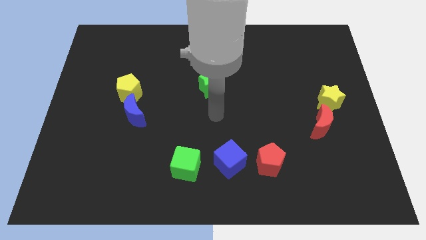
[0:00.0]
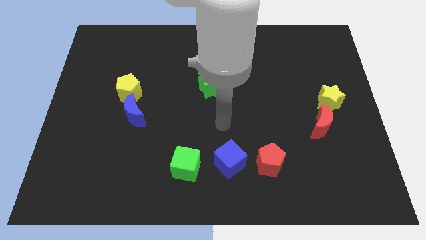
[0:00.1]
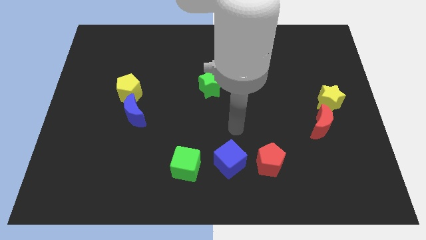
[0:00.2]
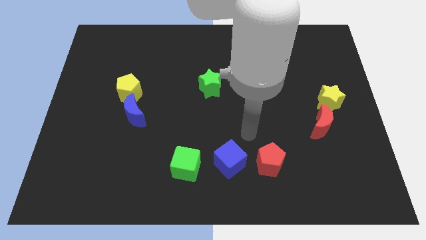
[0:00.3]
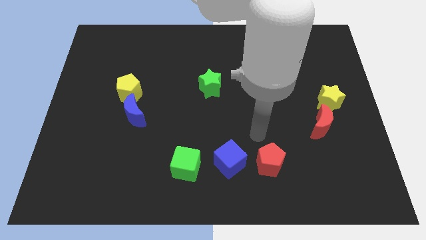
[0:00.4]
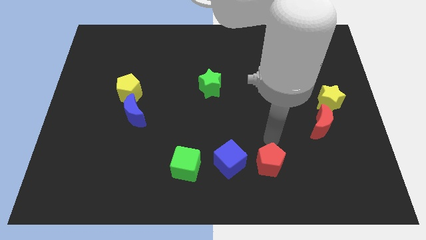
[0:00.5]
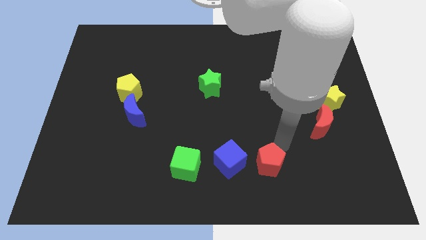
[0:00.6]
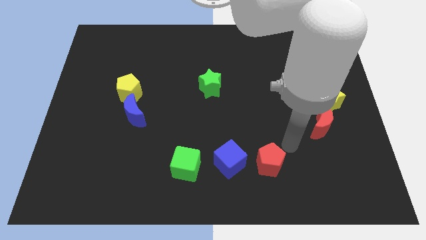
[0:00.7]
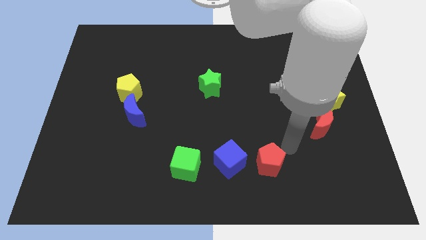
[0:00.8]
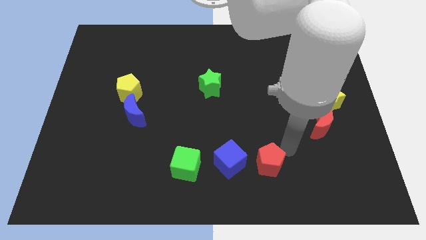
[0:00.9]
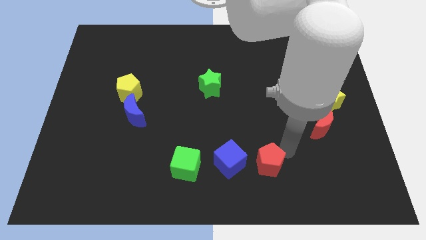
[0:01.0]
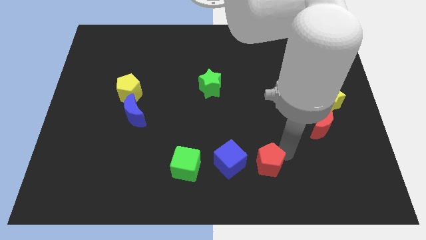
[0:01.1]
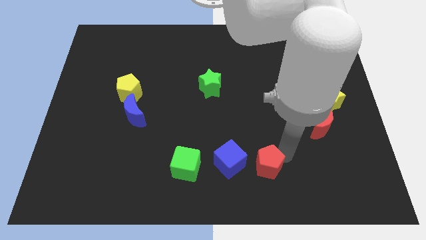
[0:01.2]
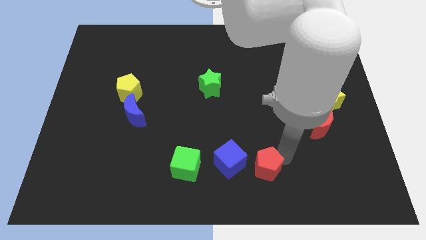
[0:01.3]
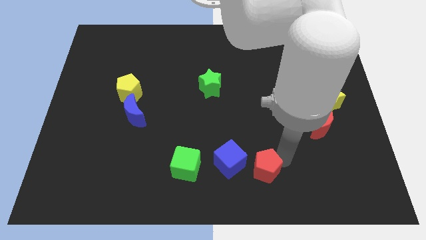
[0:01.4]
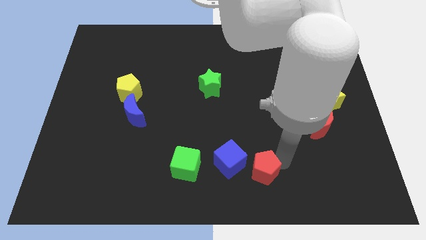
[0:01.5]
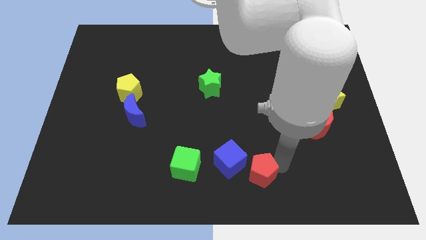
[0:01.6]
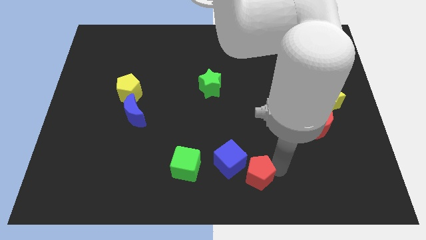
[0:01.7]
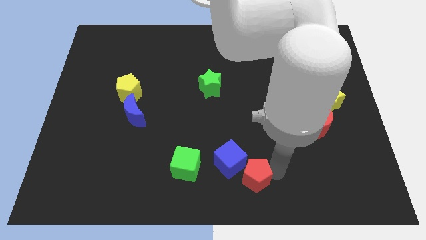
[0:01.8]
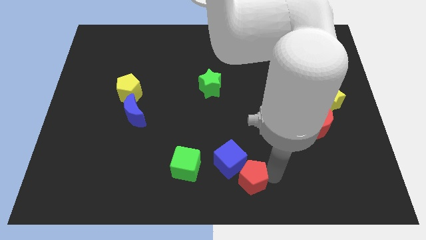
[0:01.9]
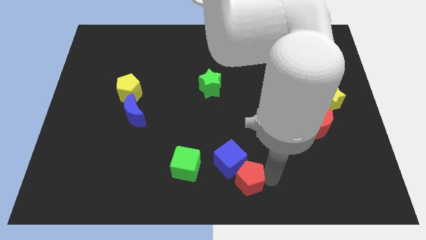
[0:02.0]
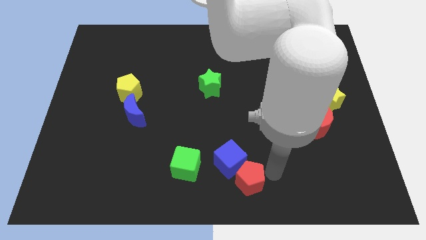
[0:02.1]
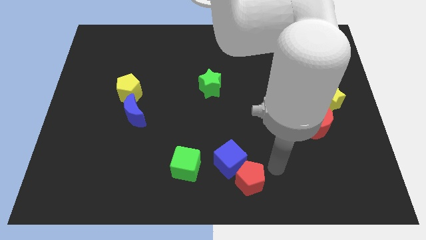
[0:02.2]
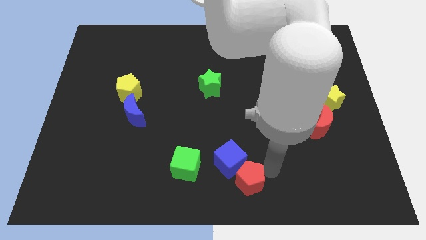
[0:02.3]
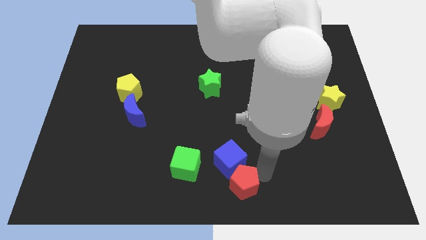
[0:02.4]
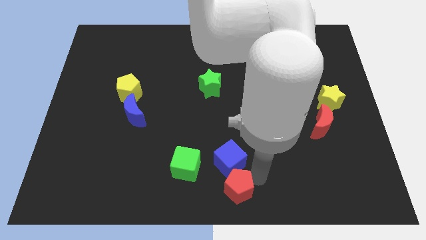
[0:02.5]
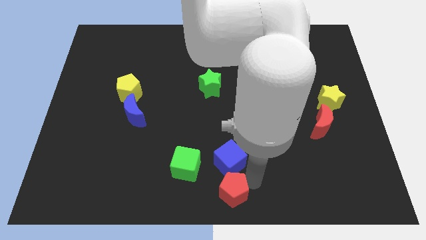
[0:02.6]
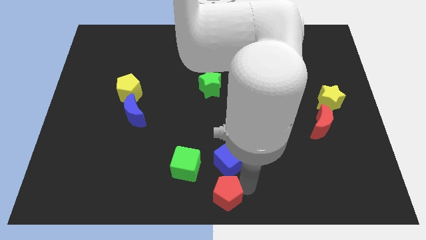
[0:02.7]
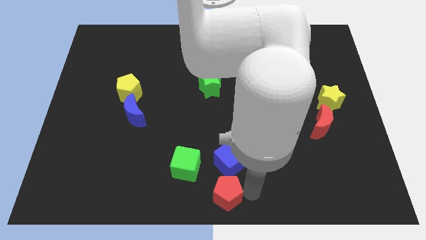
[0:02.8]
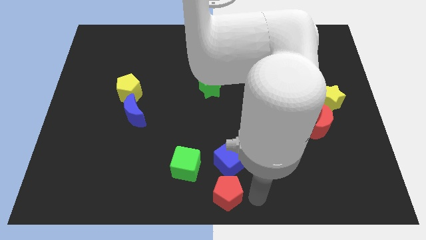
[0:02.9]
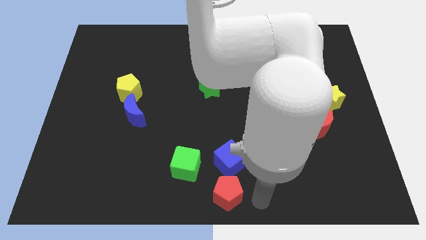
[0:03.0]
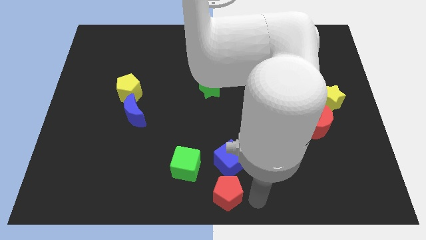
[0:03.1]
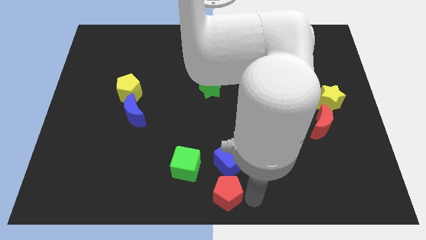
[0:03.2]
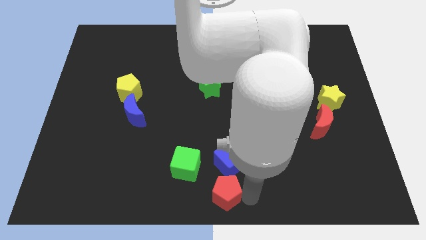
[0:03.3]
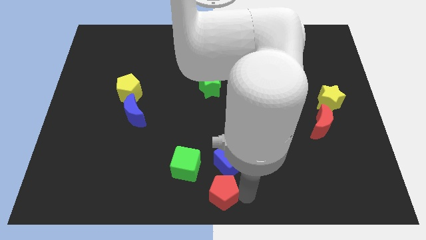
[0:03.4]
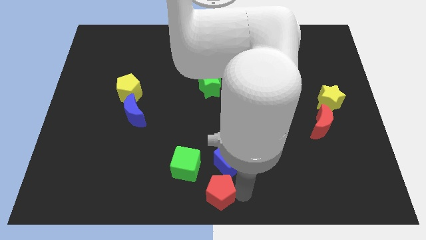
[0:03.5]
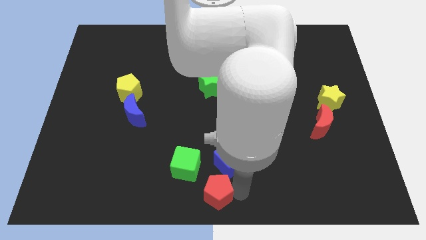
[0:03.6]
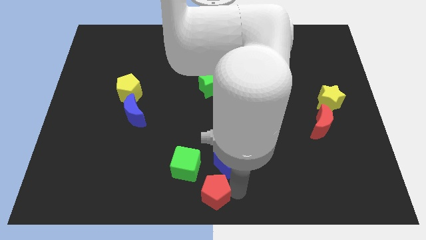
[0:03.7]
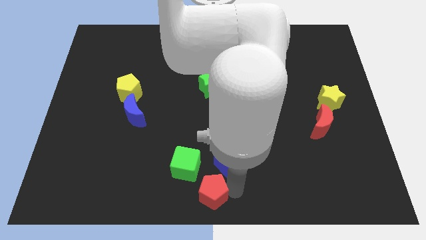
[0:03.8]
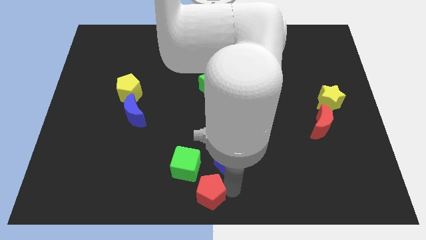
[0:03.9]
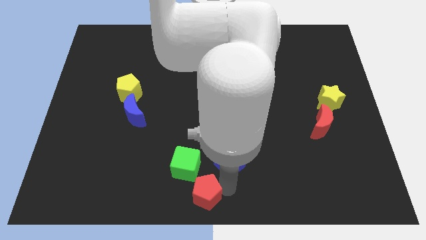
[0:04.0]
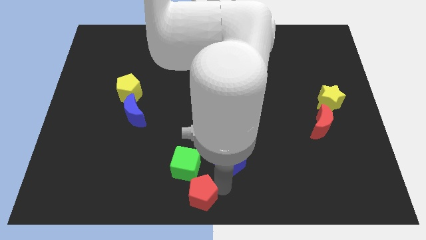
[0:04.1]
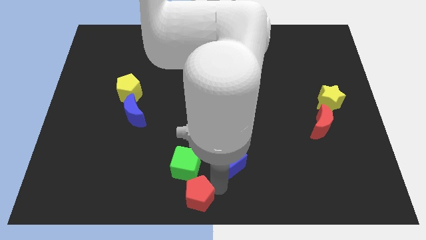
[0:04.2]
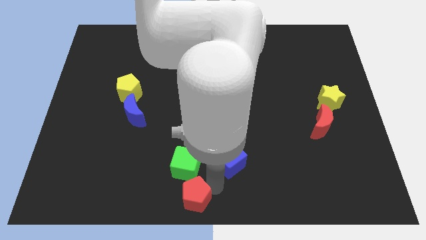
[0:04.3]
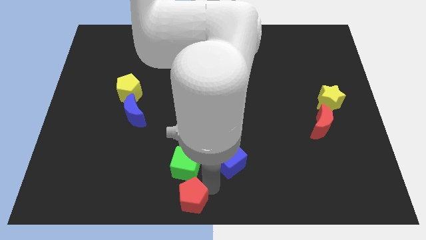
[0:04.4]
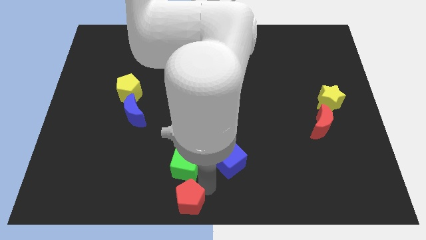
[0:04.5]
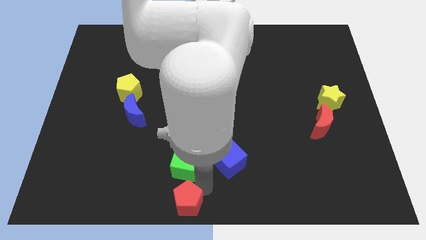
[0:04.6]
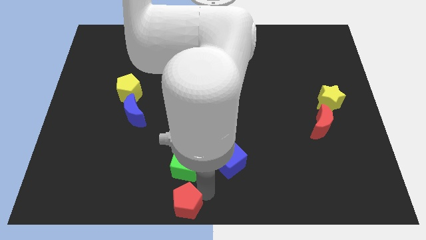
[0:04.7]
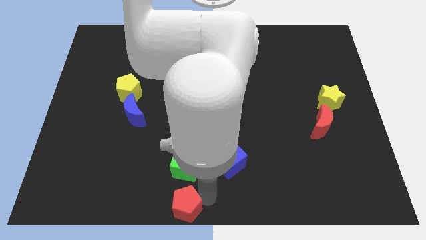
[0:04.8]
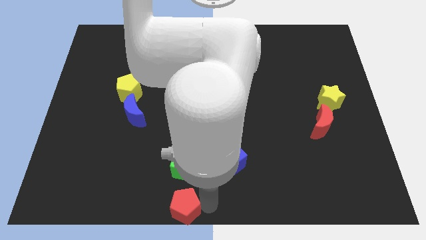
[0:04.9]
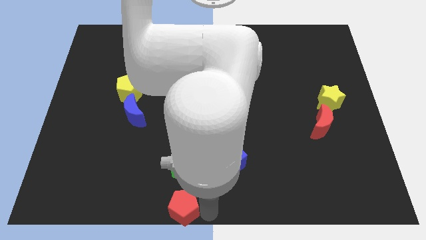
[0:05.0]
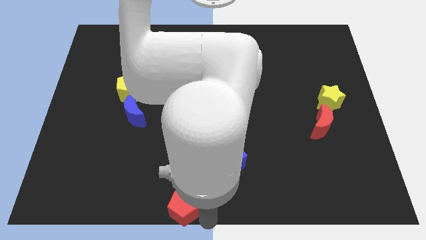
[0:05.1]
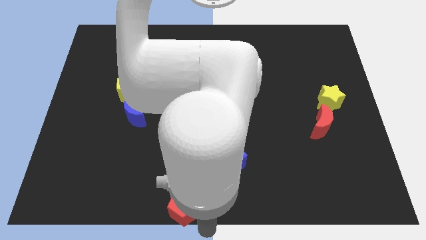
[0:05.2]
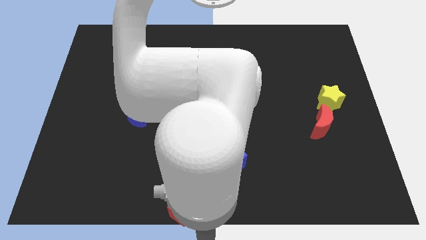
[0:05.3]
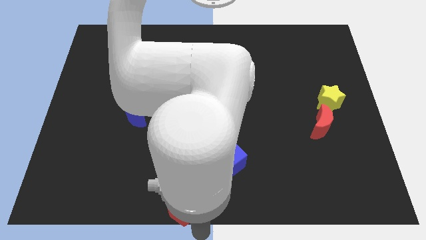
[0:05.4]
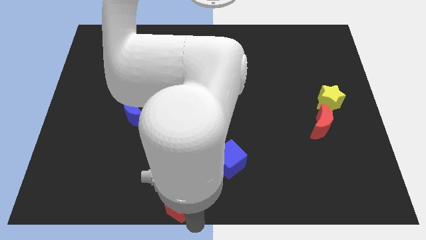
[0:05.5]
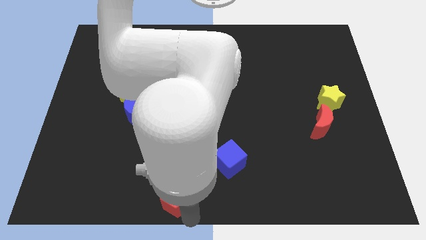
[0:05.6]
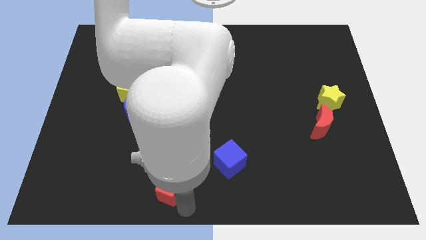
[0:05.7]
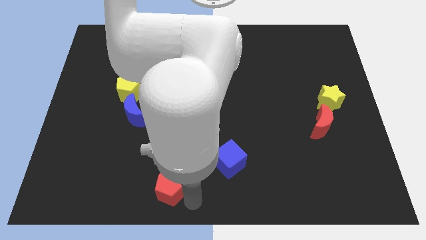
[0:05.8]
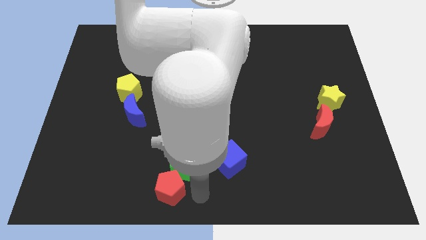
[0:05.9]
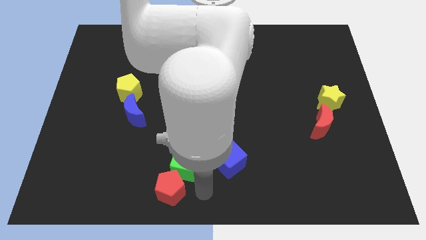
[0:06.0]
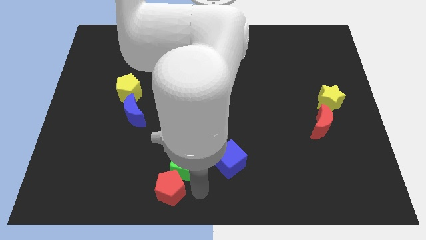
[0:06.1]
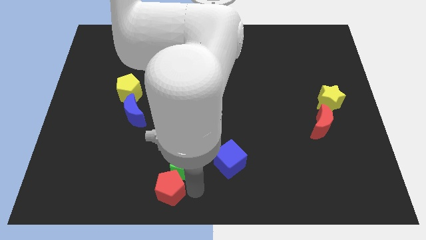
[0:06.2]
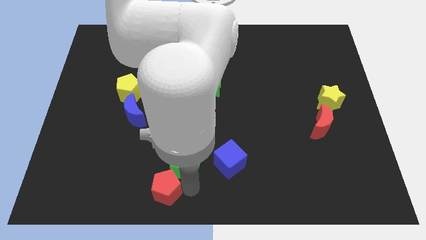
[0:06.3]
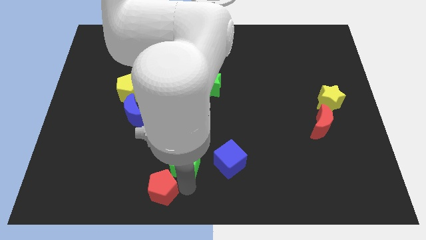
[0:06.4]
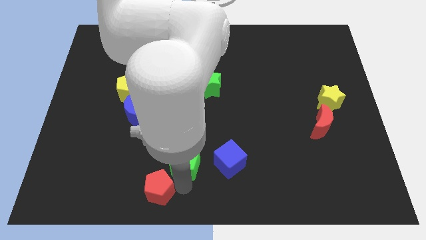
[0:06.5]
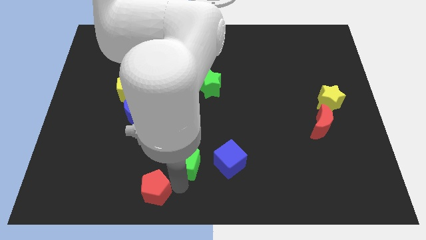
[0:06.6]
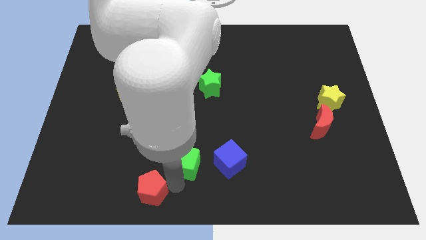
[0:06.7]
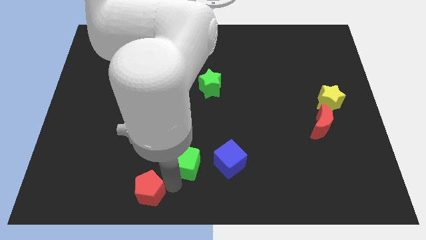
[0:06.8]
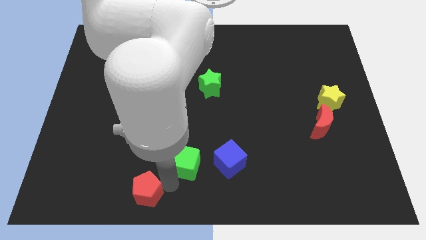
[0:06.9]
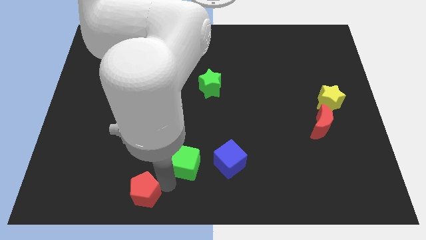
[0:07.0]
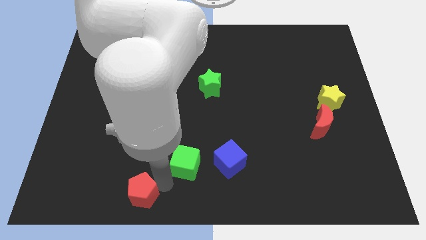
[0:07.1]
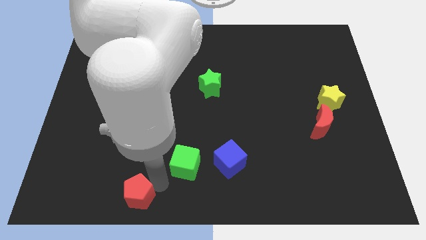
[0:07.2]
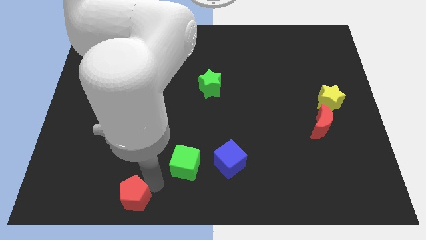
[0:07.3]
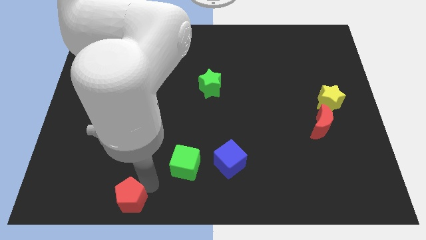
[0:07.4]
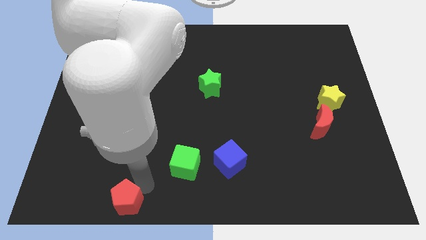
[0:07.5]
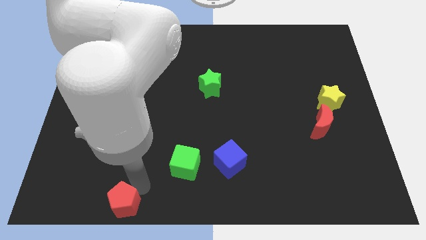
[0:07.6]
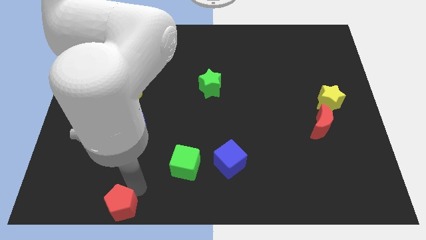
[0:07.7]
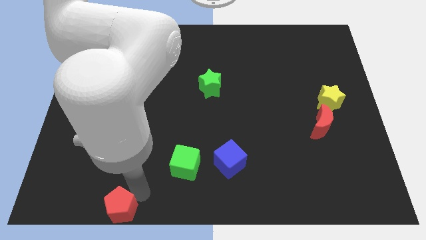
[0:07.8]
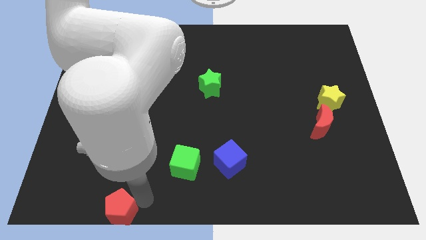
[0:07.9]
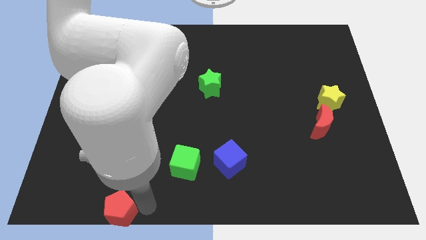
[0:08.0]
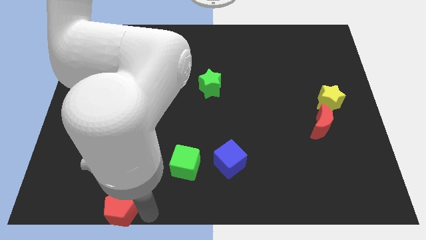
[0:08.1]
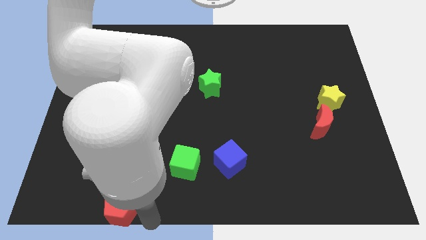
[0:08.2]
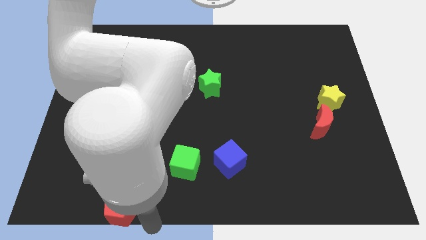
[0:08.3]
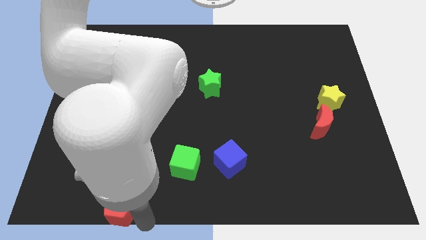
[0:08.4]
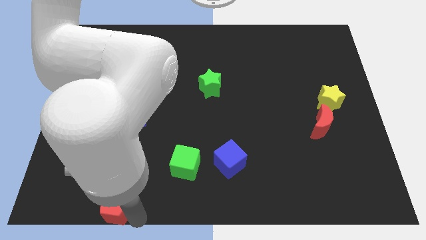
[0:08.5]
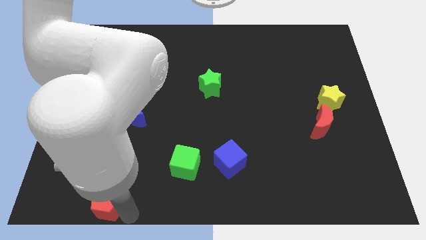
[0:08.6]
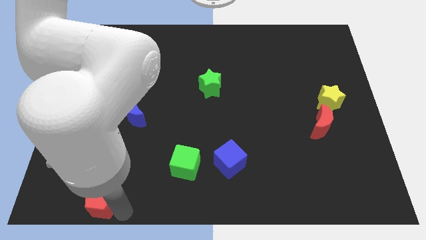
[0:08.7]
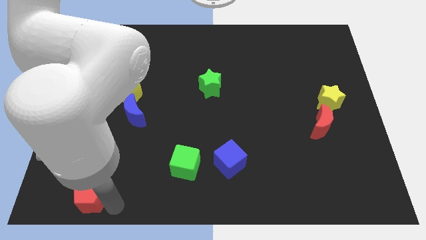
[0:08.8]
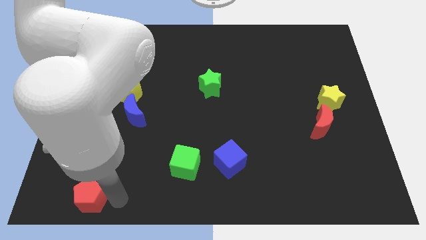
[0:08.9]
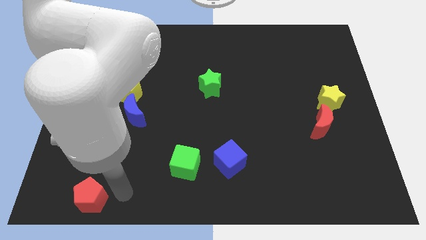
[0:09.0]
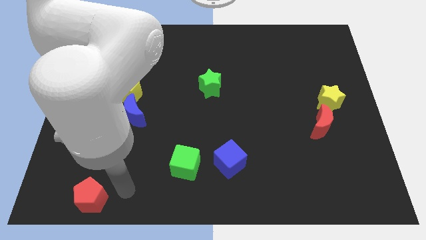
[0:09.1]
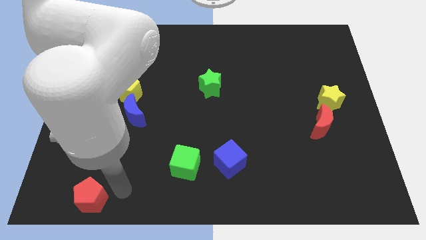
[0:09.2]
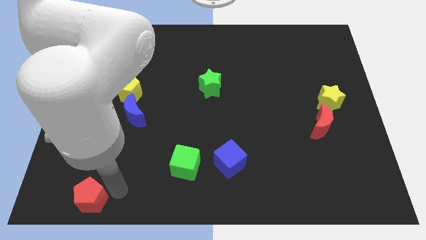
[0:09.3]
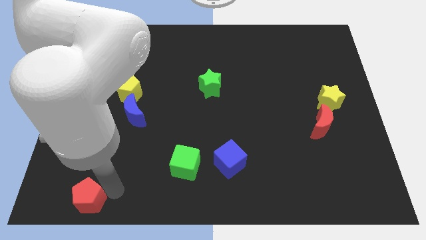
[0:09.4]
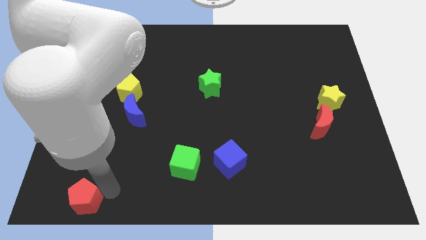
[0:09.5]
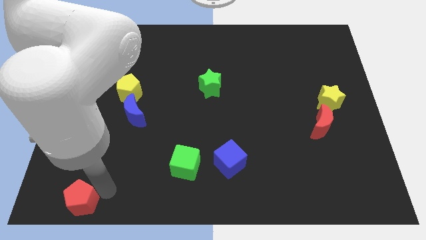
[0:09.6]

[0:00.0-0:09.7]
put the red pentagon to the bottom left of the board
